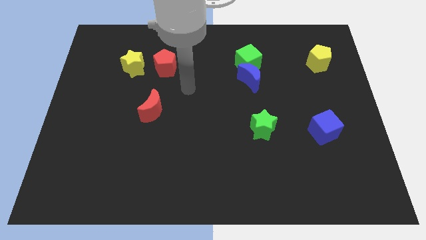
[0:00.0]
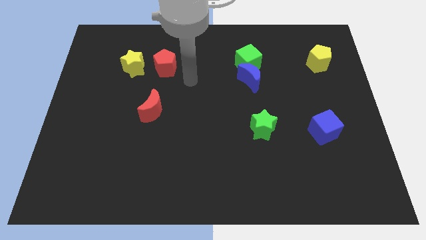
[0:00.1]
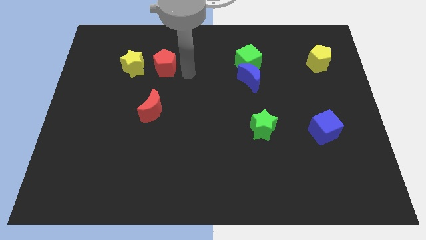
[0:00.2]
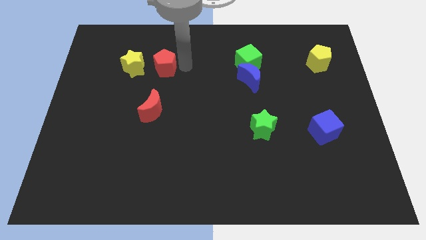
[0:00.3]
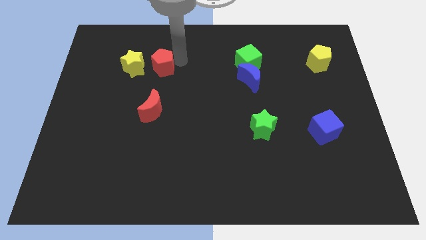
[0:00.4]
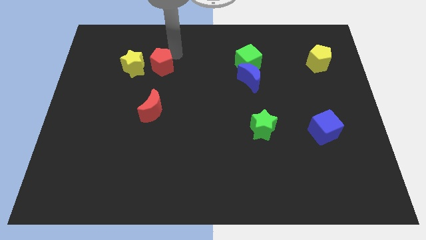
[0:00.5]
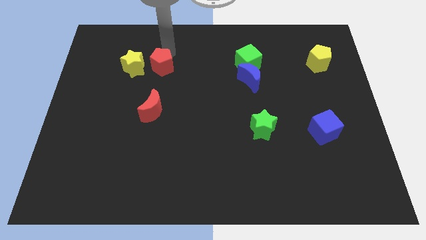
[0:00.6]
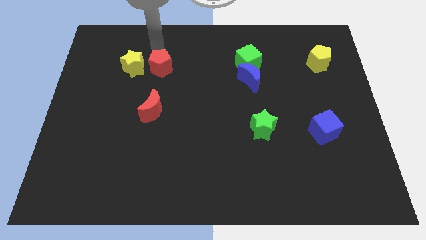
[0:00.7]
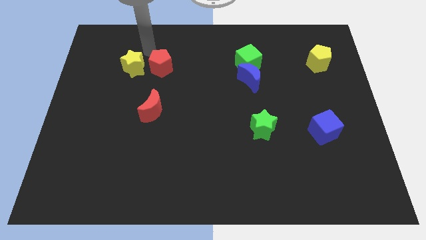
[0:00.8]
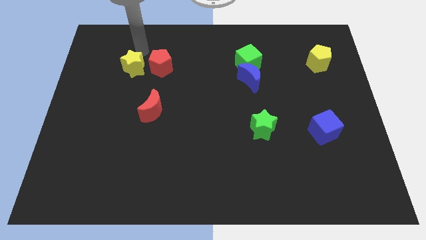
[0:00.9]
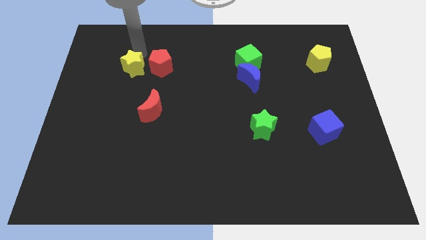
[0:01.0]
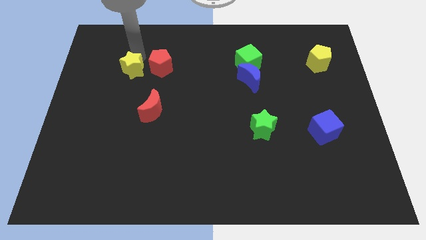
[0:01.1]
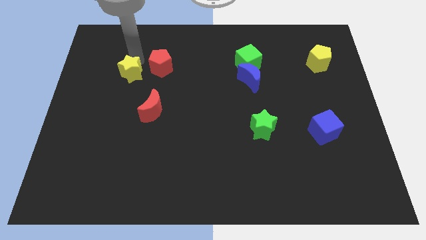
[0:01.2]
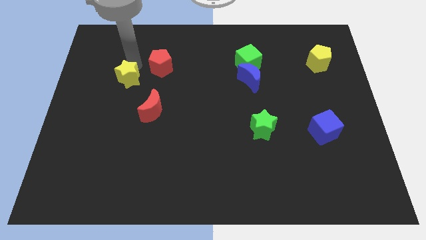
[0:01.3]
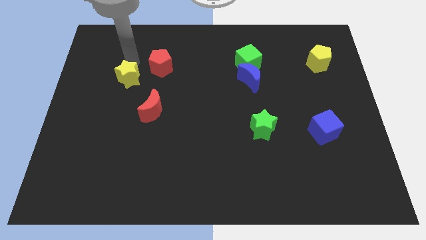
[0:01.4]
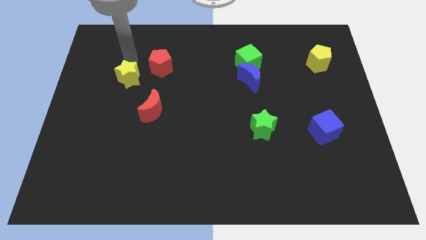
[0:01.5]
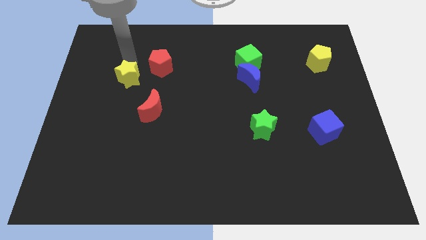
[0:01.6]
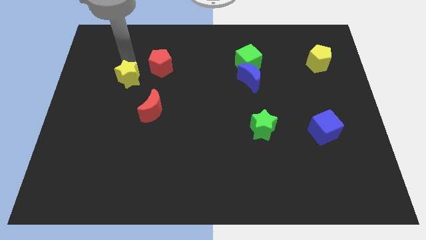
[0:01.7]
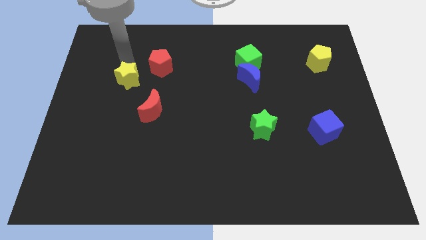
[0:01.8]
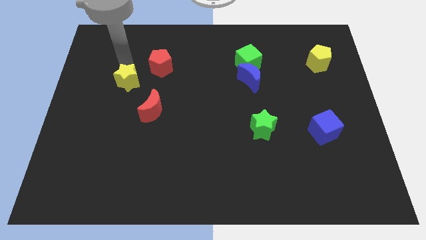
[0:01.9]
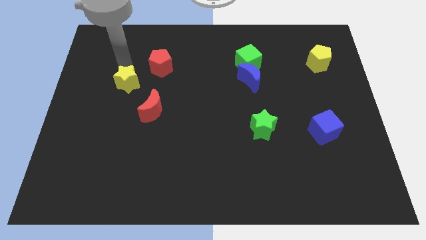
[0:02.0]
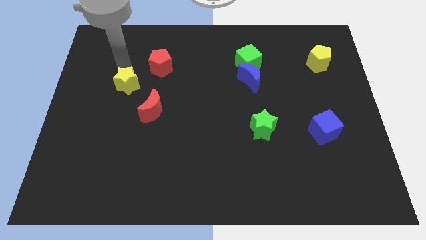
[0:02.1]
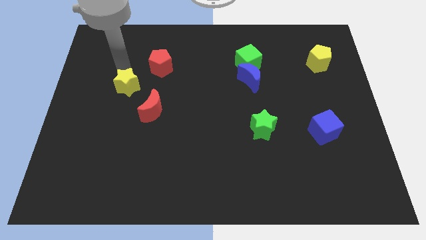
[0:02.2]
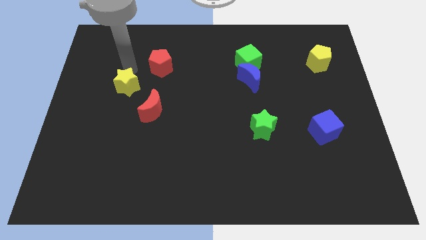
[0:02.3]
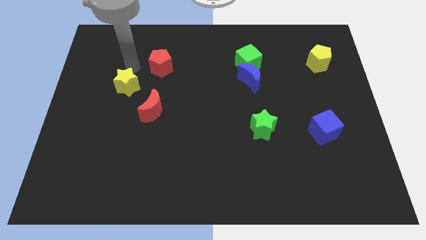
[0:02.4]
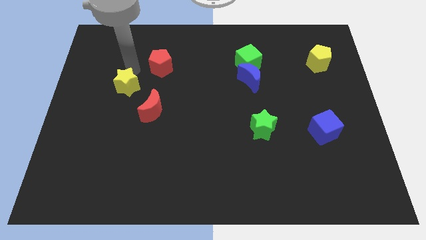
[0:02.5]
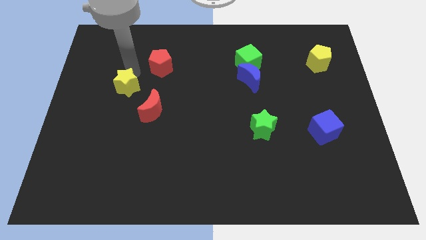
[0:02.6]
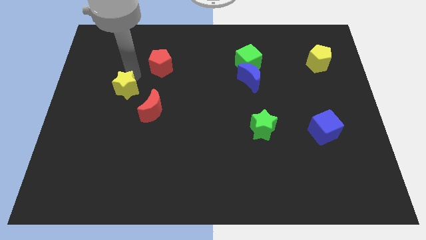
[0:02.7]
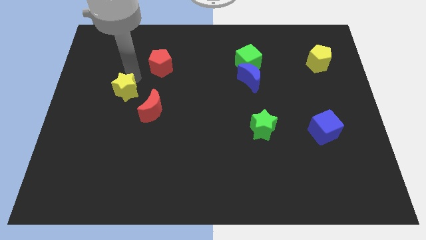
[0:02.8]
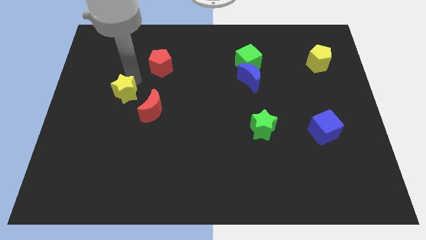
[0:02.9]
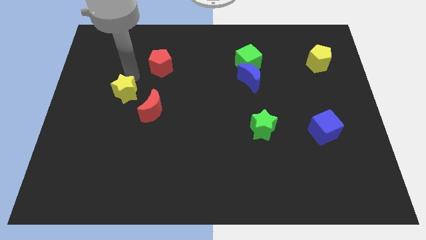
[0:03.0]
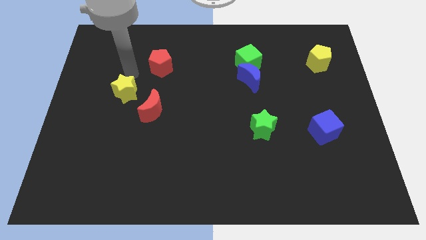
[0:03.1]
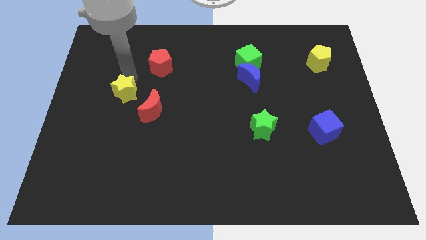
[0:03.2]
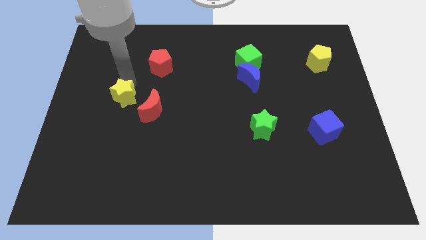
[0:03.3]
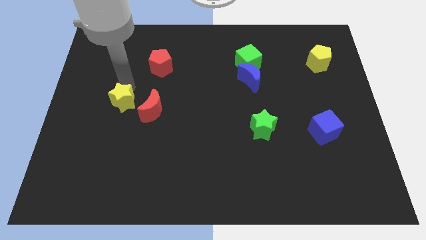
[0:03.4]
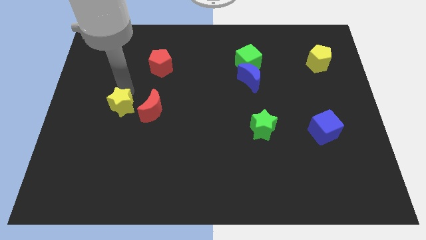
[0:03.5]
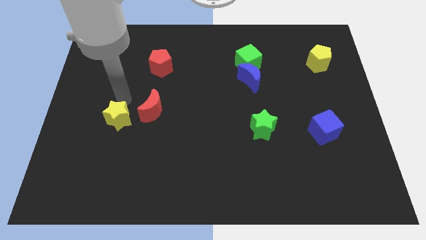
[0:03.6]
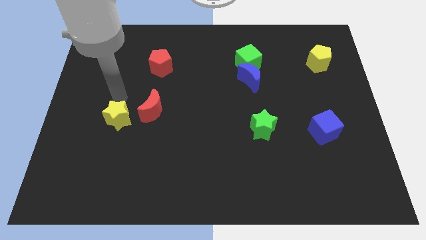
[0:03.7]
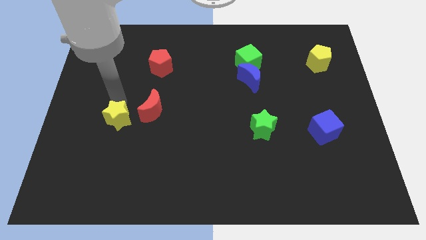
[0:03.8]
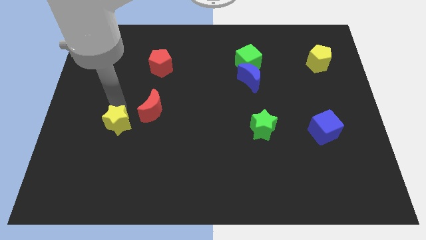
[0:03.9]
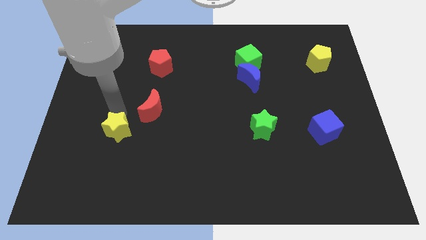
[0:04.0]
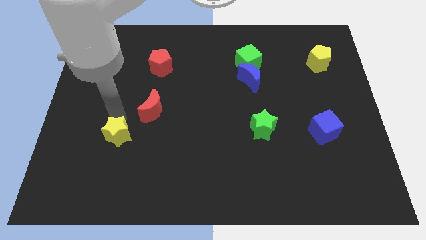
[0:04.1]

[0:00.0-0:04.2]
slide the yellow star downwards

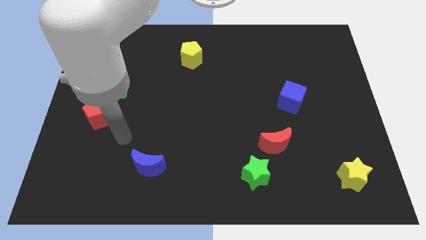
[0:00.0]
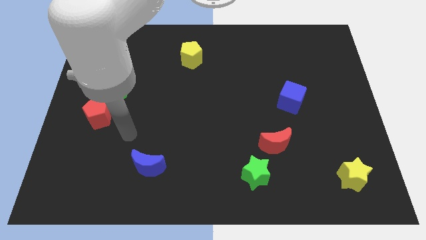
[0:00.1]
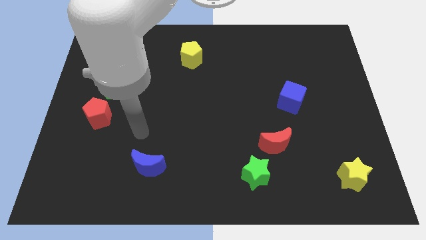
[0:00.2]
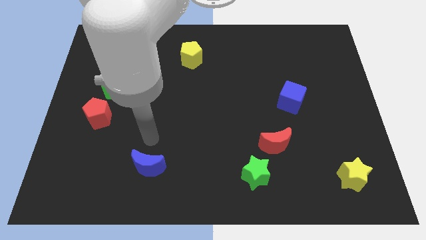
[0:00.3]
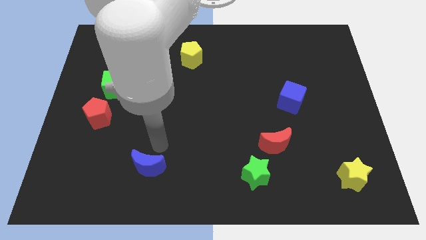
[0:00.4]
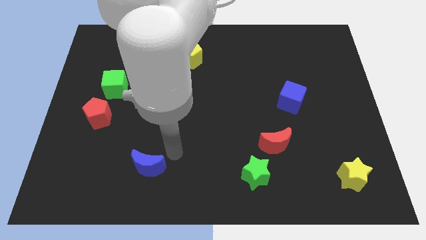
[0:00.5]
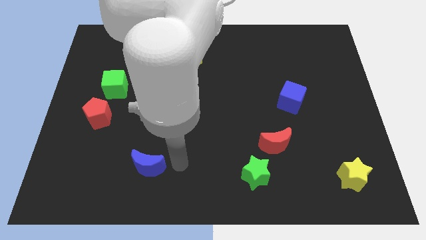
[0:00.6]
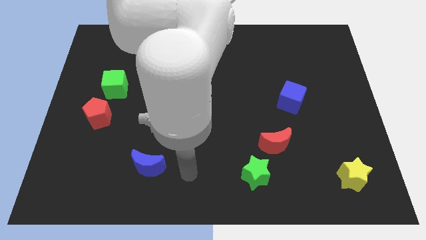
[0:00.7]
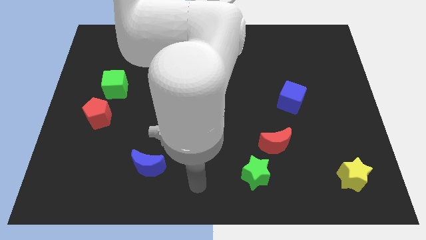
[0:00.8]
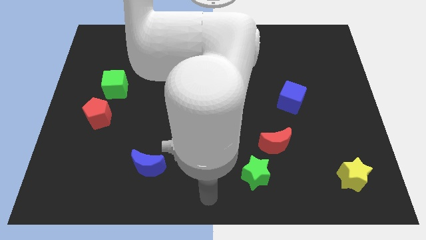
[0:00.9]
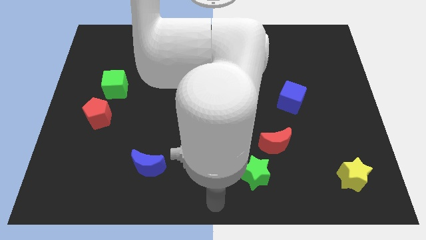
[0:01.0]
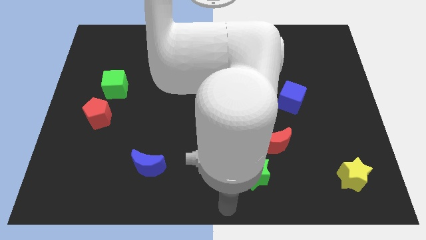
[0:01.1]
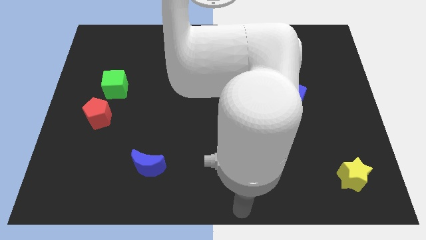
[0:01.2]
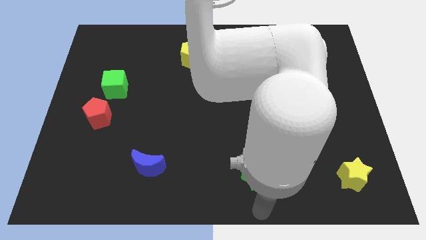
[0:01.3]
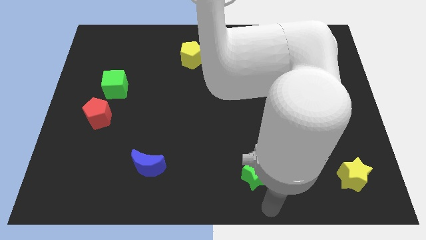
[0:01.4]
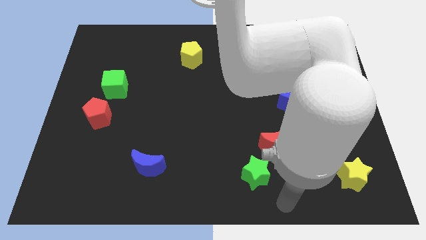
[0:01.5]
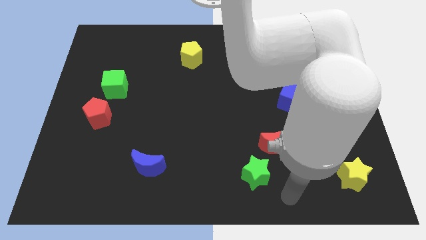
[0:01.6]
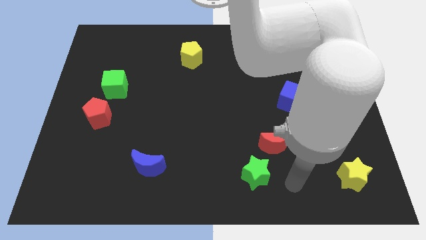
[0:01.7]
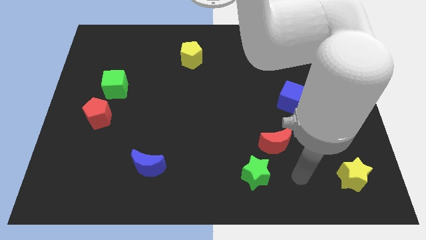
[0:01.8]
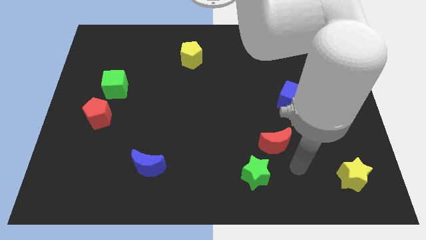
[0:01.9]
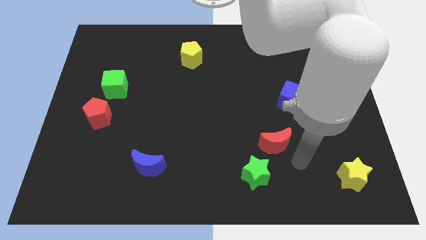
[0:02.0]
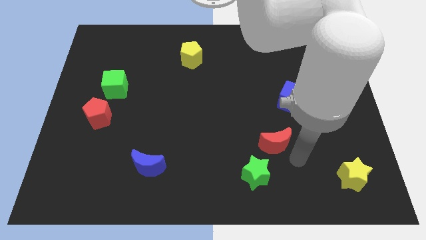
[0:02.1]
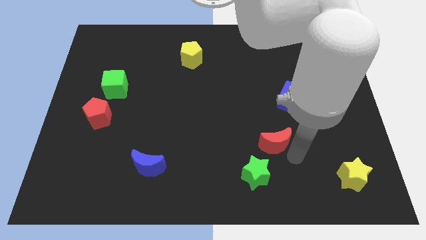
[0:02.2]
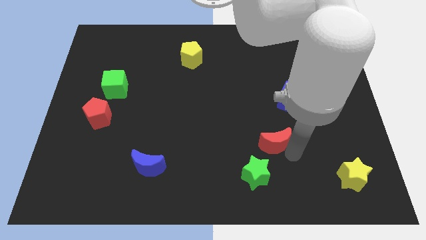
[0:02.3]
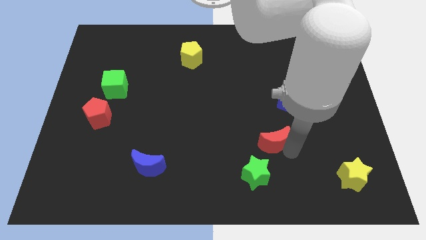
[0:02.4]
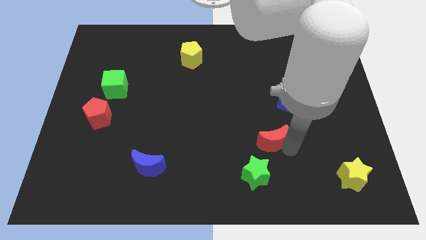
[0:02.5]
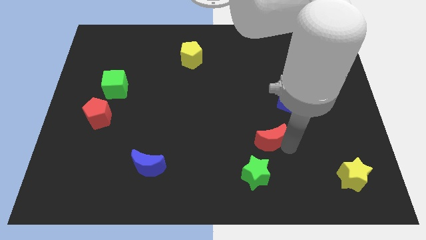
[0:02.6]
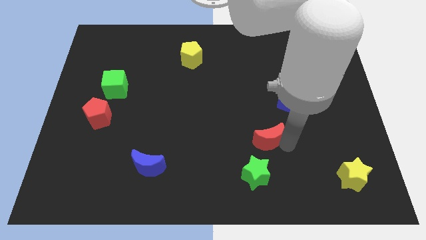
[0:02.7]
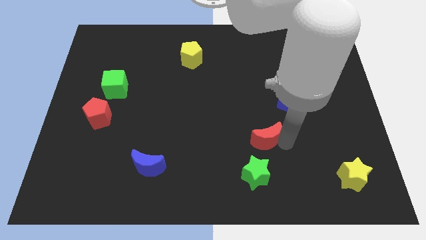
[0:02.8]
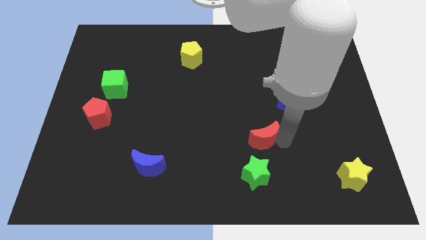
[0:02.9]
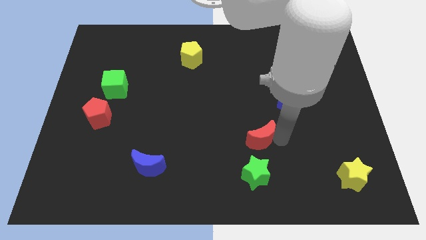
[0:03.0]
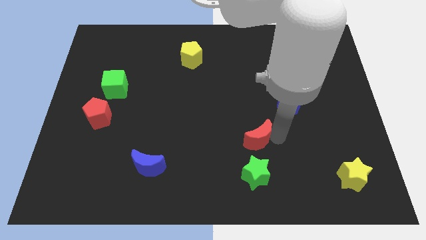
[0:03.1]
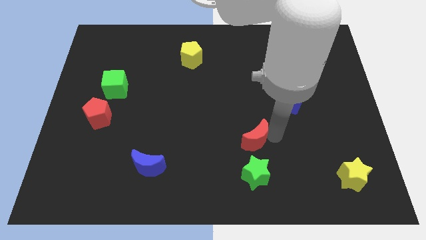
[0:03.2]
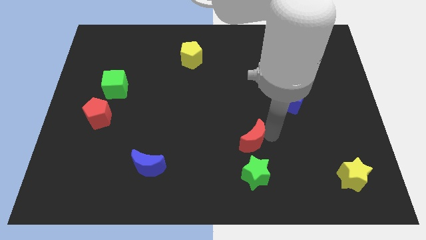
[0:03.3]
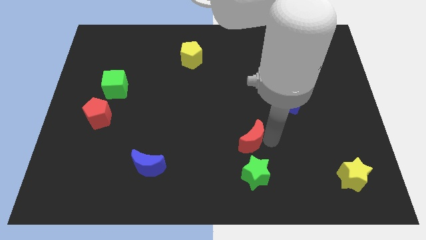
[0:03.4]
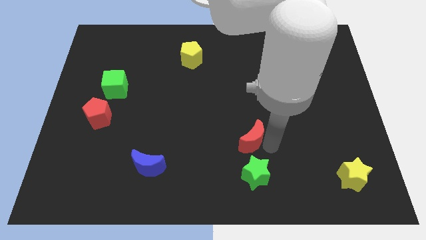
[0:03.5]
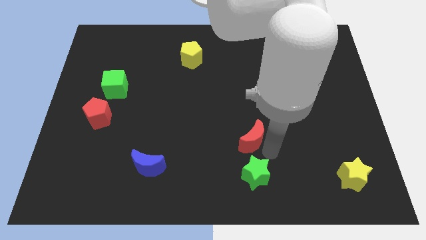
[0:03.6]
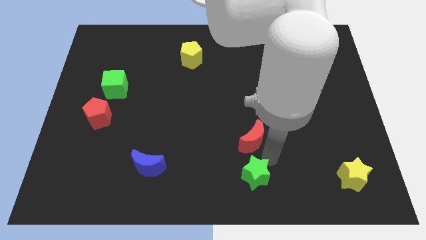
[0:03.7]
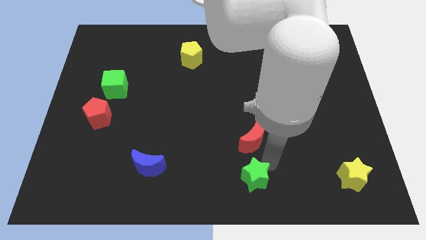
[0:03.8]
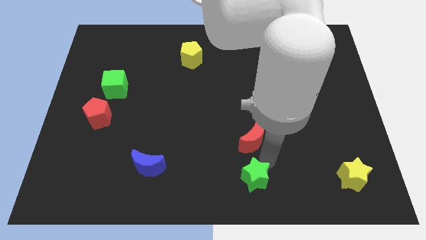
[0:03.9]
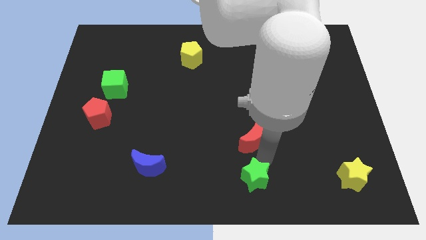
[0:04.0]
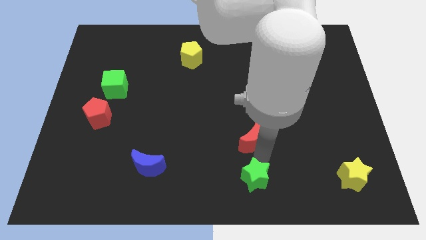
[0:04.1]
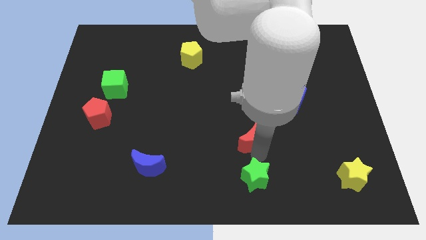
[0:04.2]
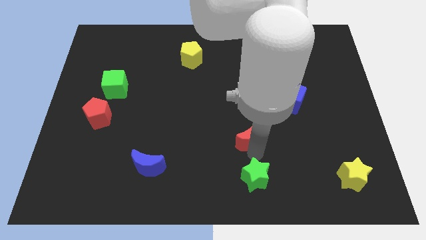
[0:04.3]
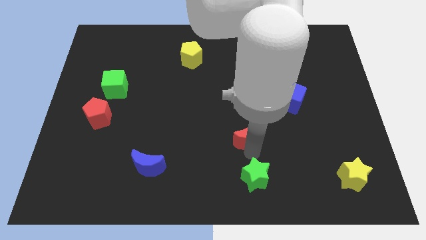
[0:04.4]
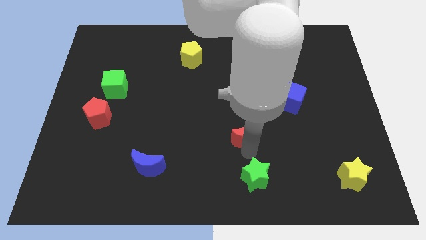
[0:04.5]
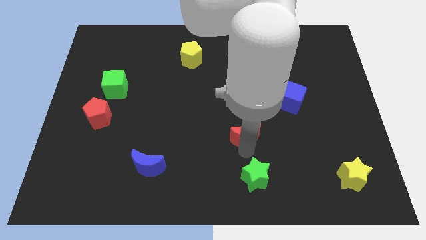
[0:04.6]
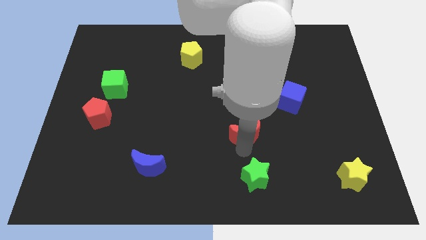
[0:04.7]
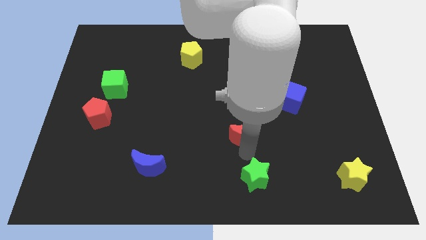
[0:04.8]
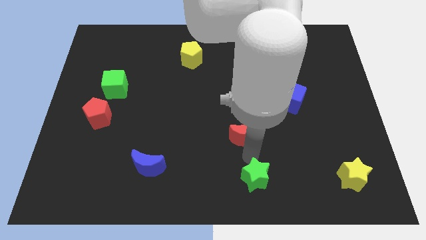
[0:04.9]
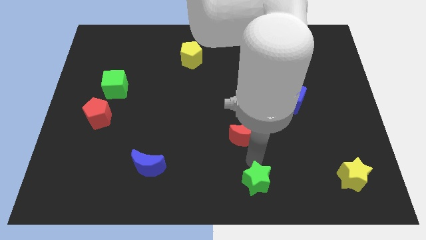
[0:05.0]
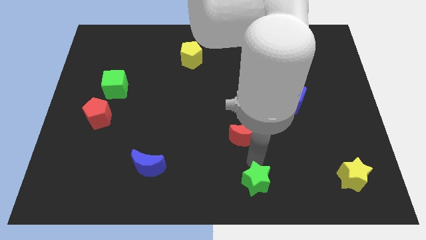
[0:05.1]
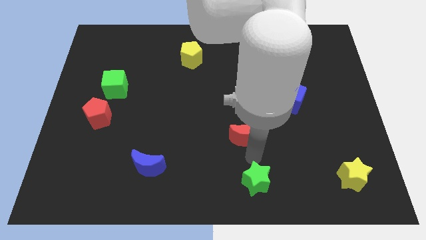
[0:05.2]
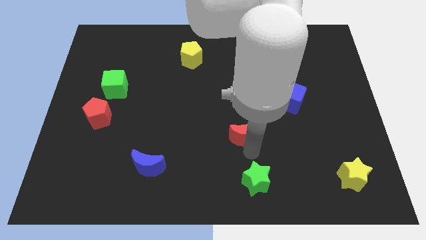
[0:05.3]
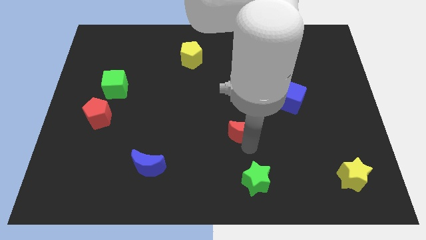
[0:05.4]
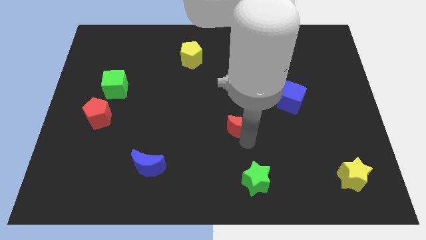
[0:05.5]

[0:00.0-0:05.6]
move the red moon a little up and left
